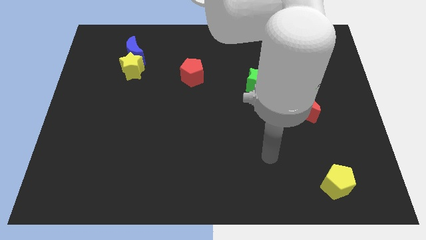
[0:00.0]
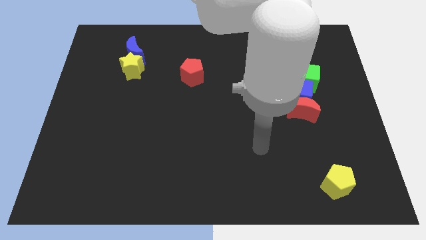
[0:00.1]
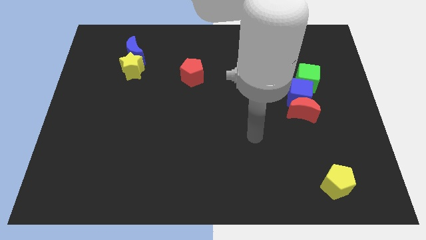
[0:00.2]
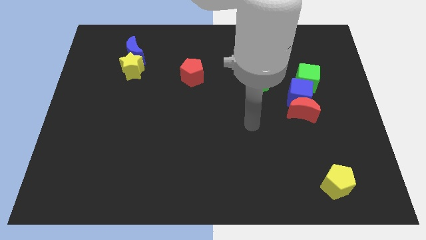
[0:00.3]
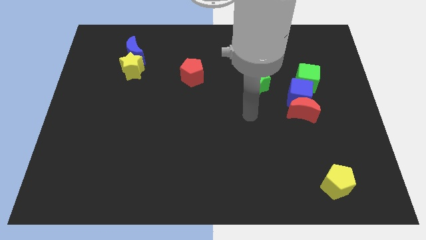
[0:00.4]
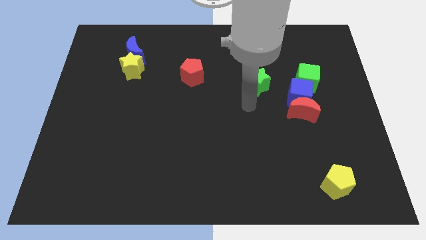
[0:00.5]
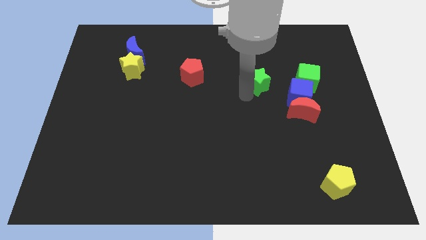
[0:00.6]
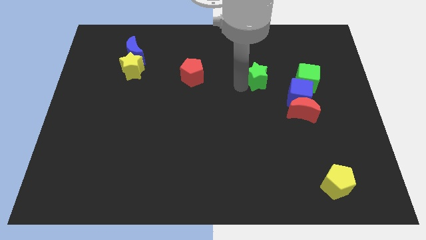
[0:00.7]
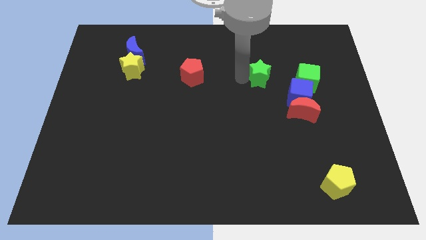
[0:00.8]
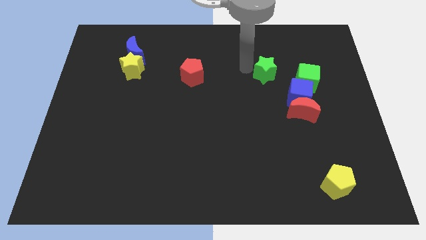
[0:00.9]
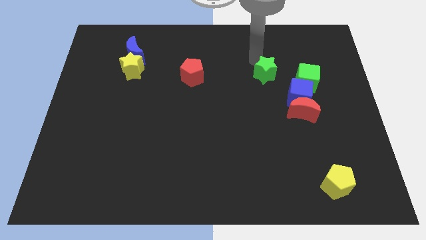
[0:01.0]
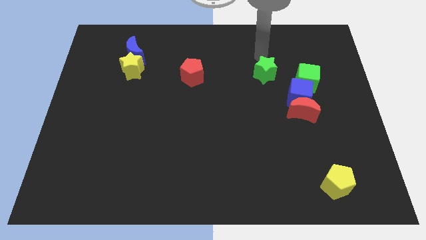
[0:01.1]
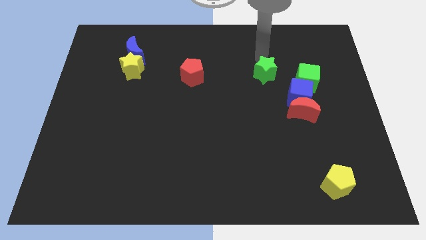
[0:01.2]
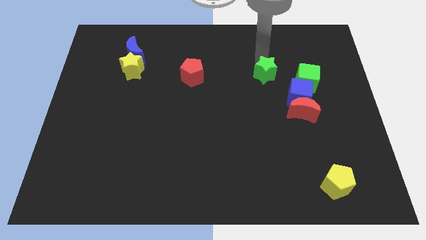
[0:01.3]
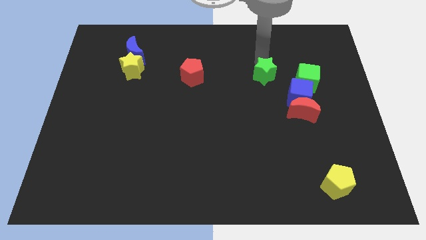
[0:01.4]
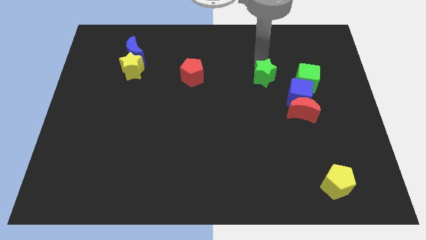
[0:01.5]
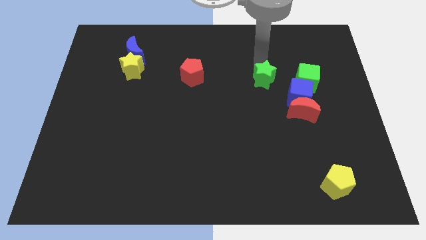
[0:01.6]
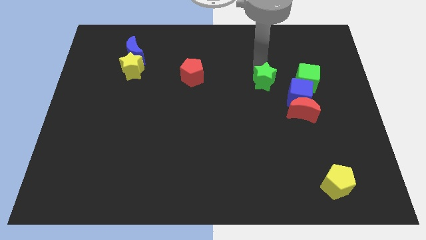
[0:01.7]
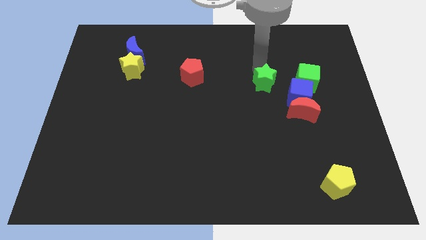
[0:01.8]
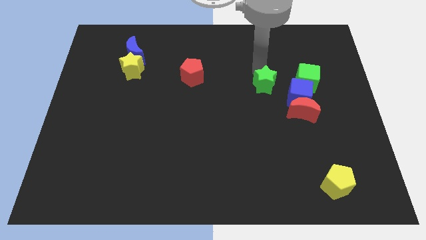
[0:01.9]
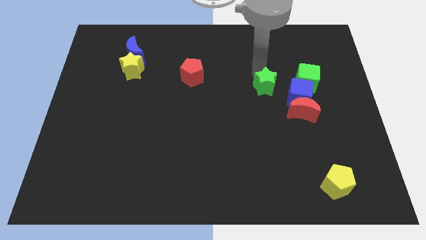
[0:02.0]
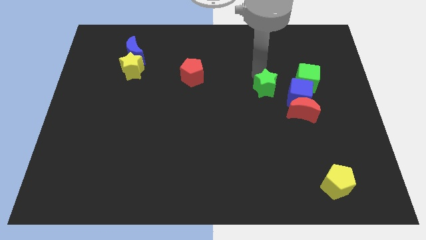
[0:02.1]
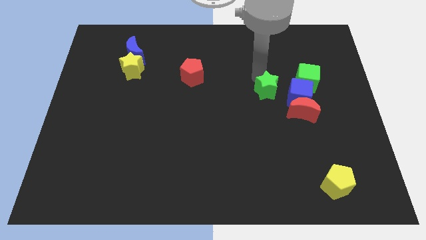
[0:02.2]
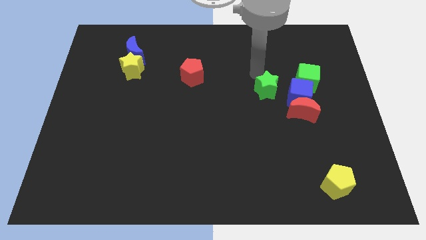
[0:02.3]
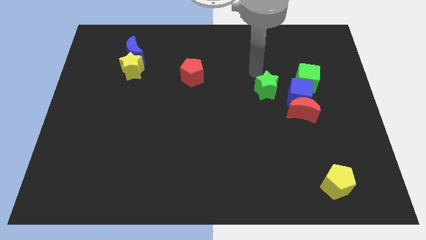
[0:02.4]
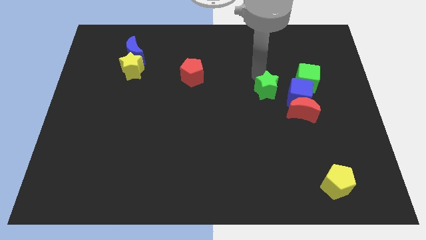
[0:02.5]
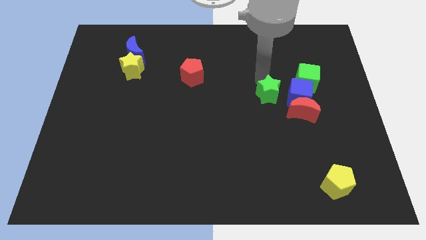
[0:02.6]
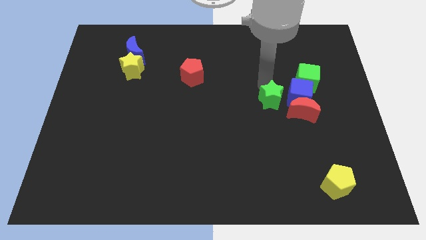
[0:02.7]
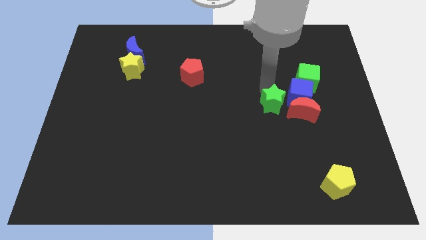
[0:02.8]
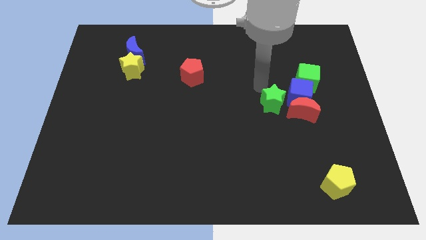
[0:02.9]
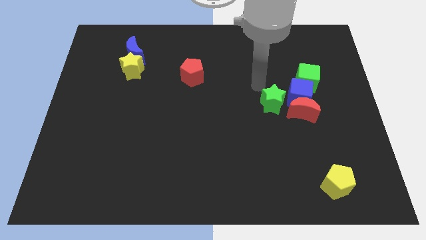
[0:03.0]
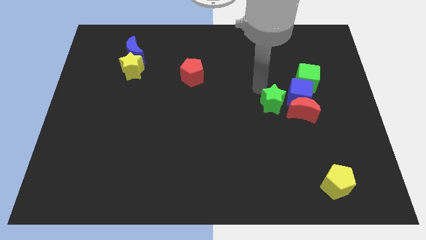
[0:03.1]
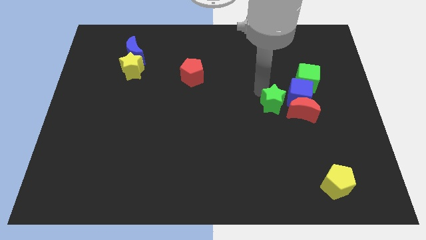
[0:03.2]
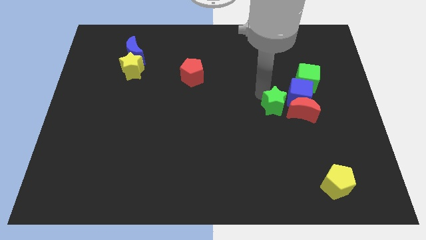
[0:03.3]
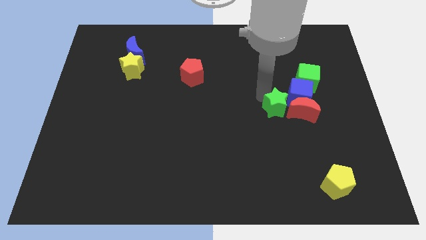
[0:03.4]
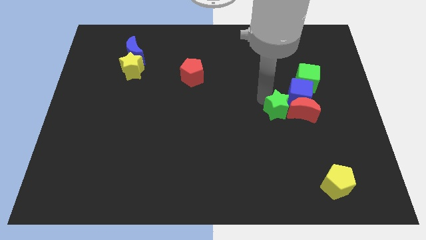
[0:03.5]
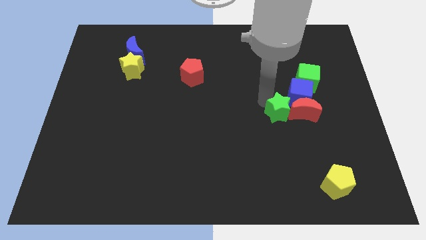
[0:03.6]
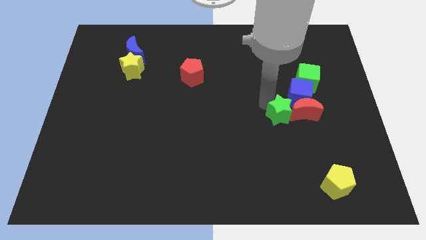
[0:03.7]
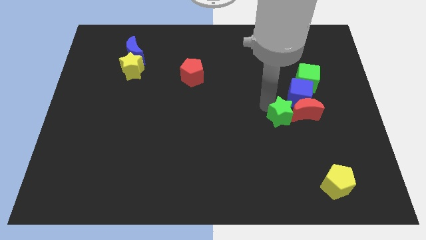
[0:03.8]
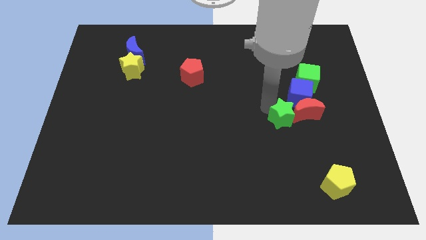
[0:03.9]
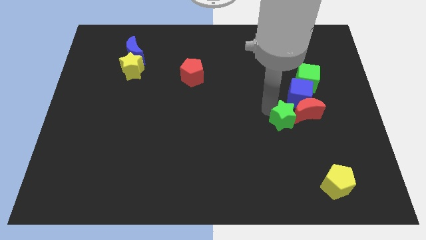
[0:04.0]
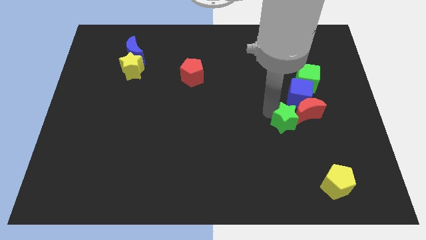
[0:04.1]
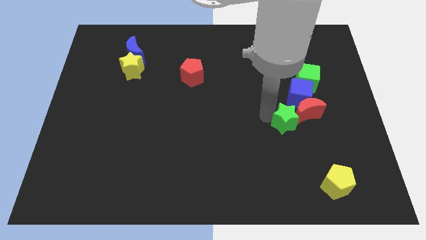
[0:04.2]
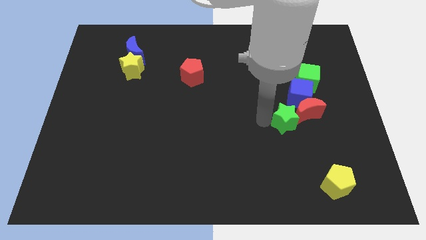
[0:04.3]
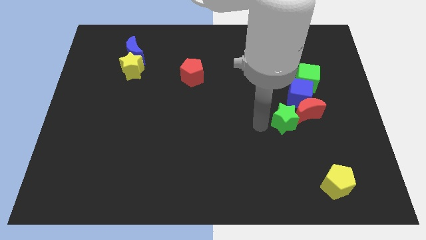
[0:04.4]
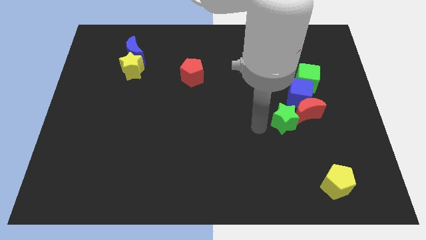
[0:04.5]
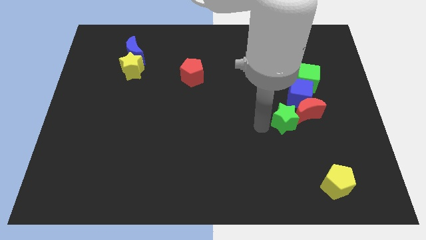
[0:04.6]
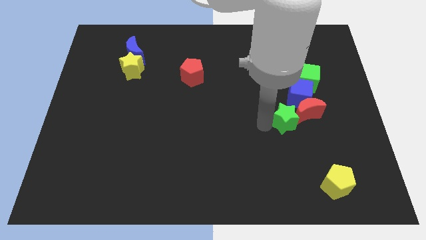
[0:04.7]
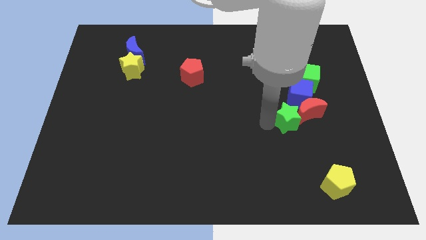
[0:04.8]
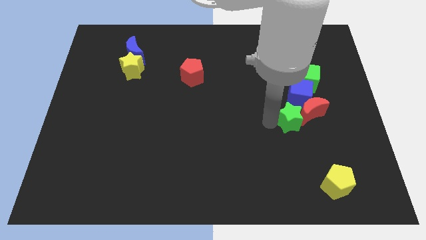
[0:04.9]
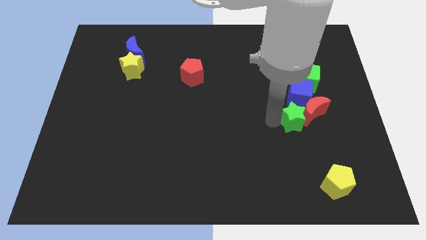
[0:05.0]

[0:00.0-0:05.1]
put the green star below the green cube

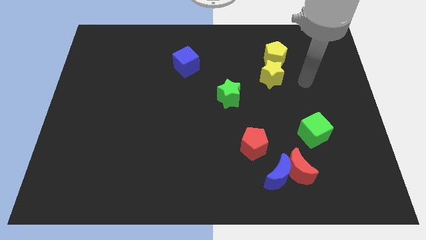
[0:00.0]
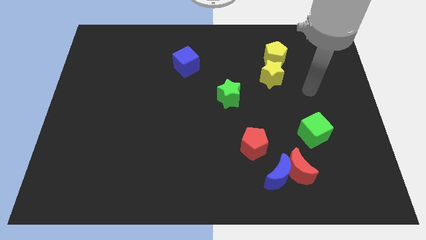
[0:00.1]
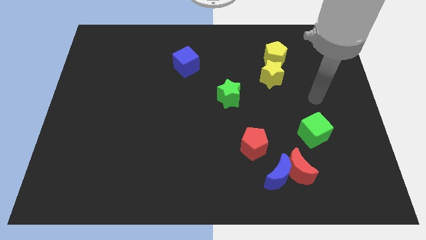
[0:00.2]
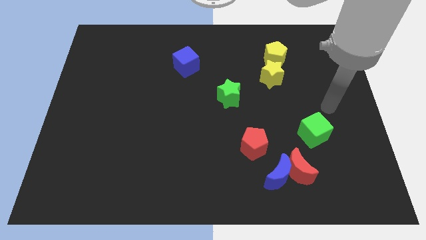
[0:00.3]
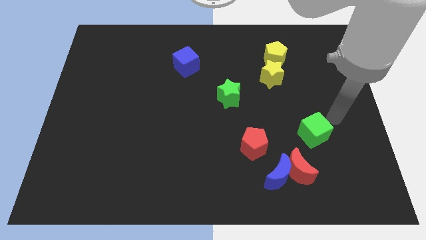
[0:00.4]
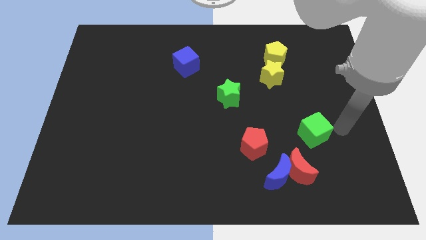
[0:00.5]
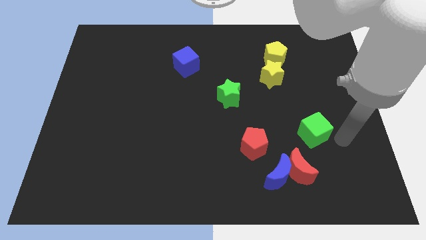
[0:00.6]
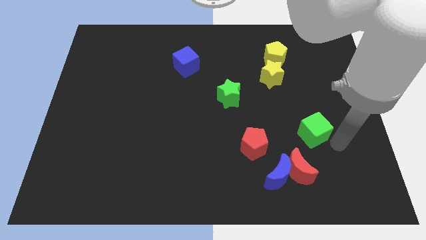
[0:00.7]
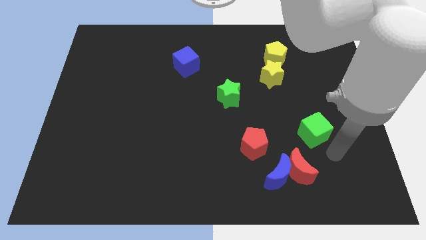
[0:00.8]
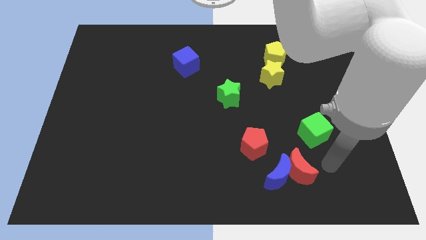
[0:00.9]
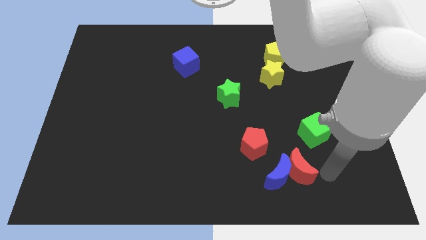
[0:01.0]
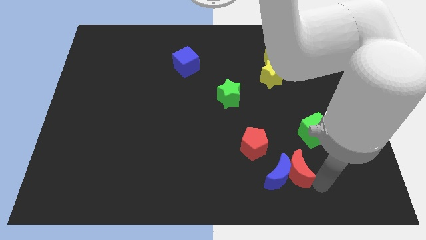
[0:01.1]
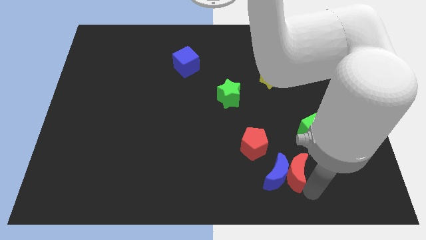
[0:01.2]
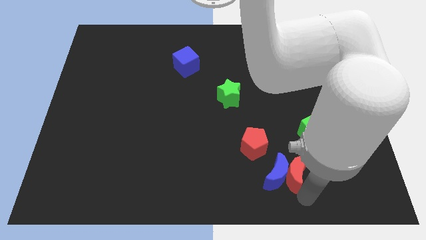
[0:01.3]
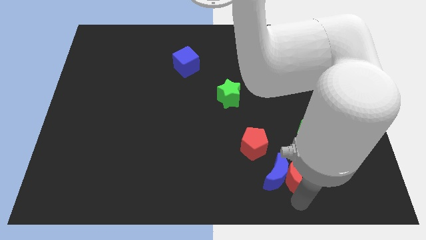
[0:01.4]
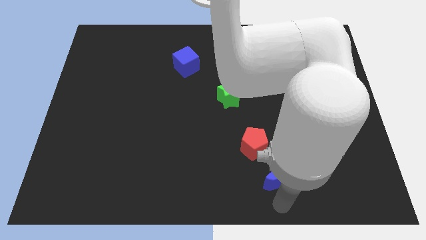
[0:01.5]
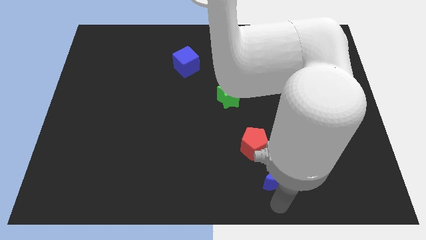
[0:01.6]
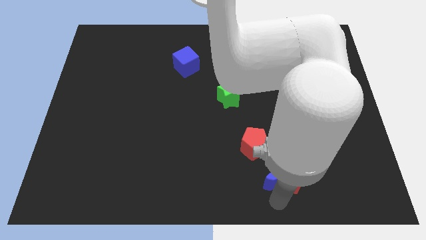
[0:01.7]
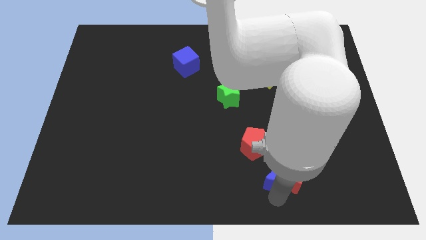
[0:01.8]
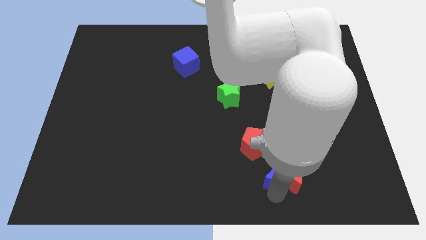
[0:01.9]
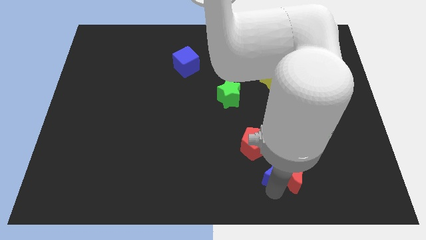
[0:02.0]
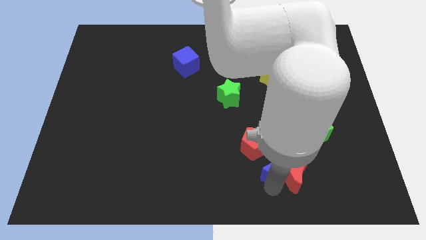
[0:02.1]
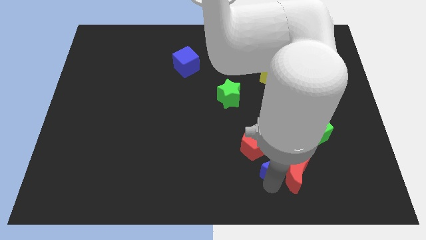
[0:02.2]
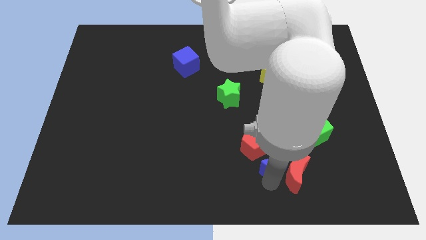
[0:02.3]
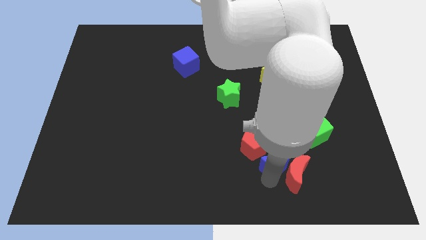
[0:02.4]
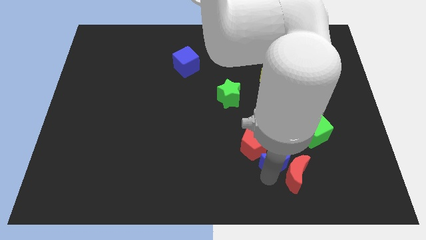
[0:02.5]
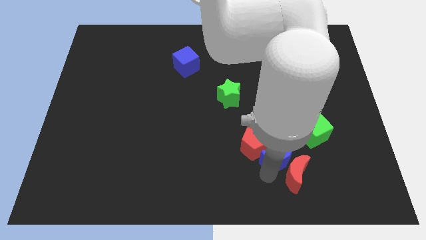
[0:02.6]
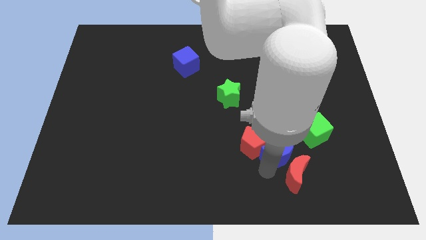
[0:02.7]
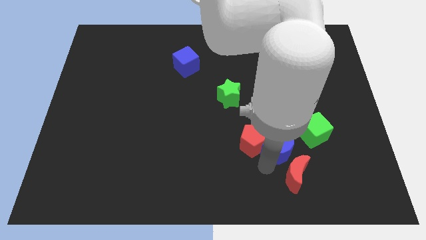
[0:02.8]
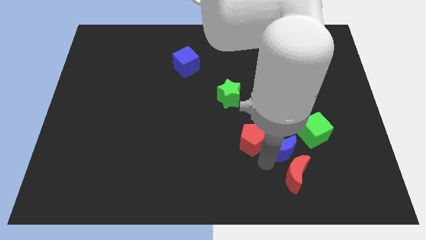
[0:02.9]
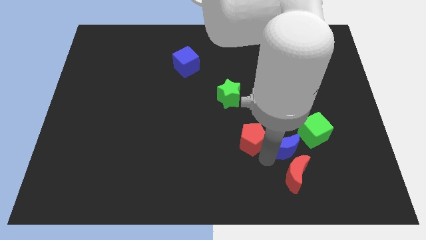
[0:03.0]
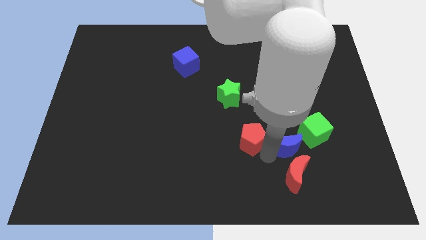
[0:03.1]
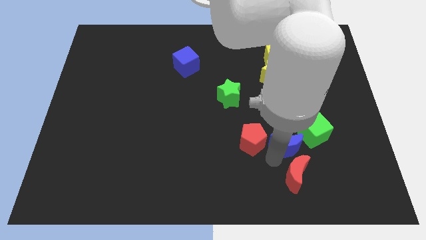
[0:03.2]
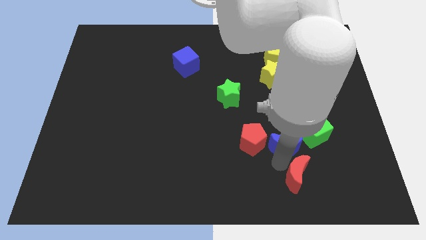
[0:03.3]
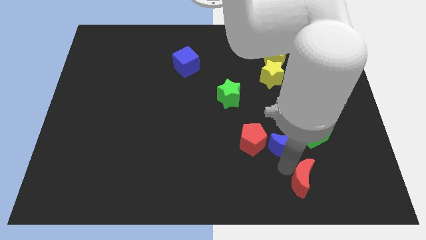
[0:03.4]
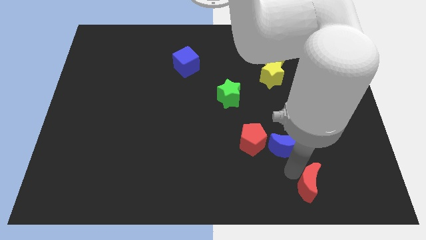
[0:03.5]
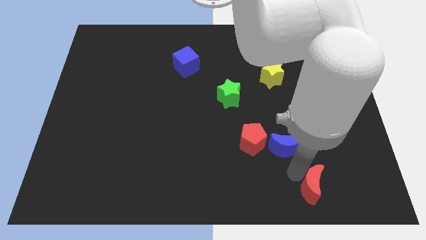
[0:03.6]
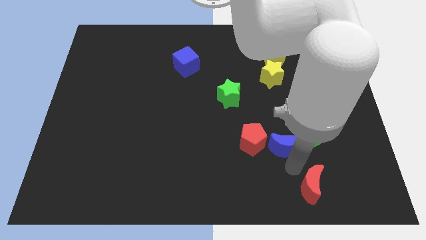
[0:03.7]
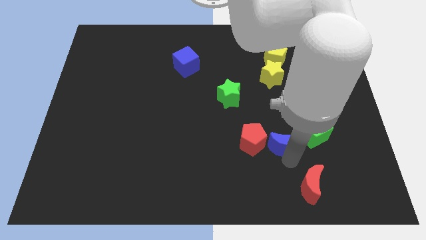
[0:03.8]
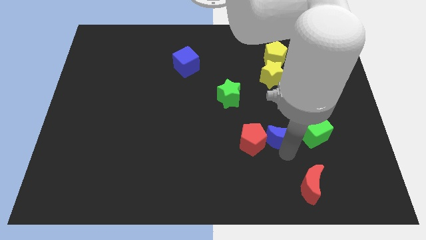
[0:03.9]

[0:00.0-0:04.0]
put the blue moon to the top right side of the red pentagon
